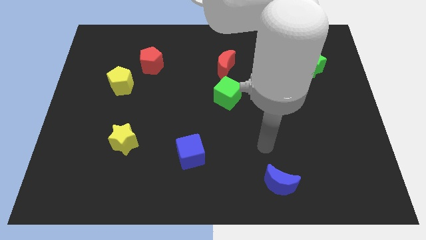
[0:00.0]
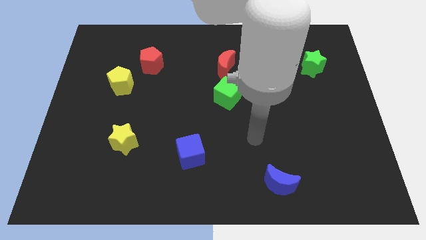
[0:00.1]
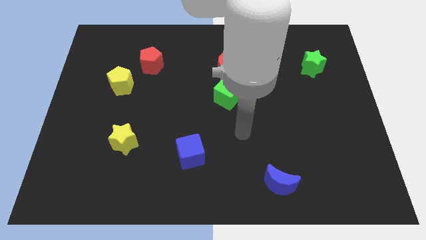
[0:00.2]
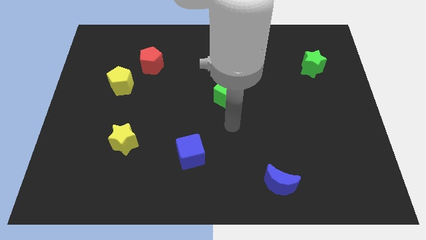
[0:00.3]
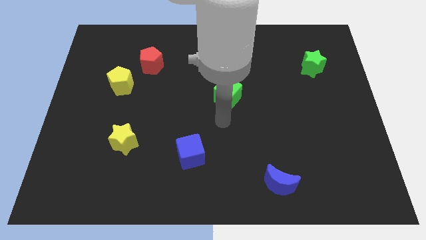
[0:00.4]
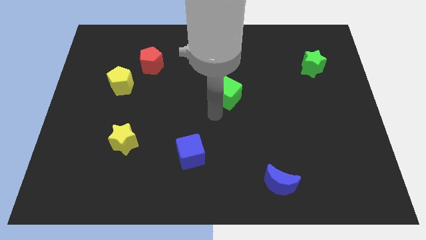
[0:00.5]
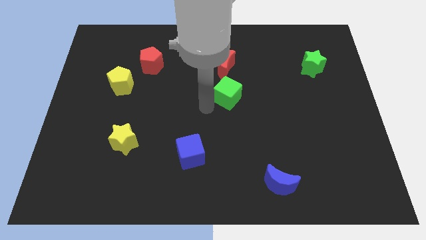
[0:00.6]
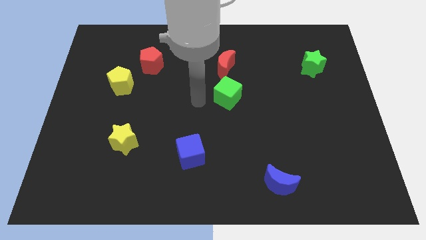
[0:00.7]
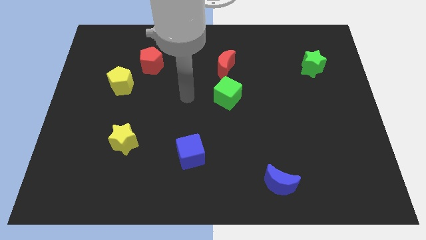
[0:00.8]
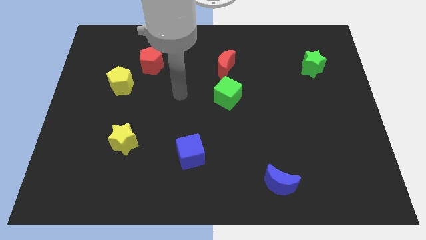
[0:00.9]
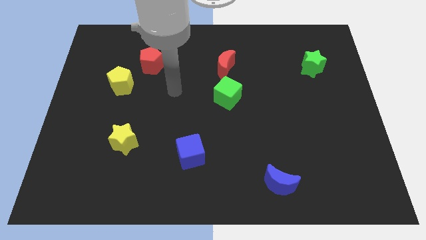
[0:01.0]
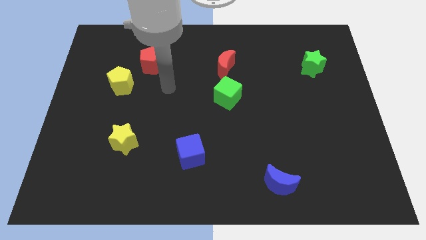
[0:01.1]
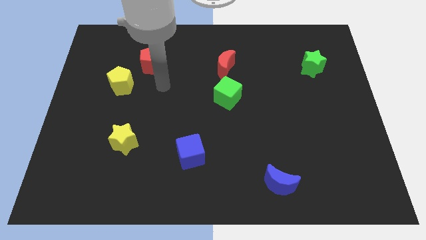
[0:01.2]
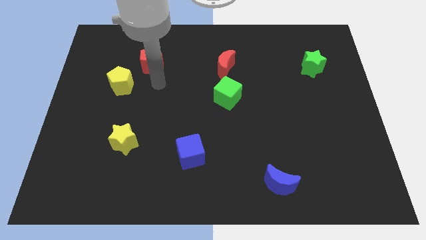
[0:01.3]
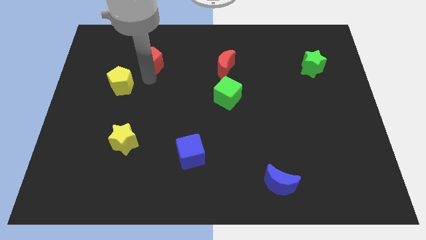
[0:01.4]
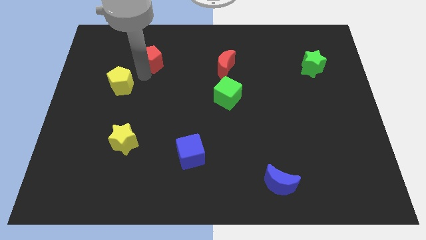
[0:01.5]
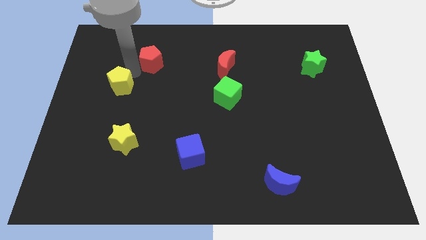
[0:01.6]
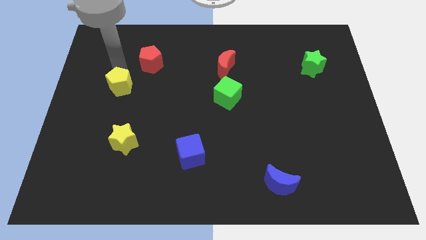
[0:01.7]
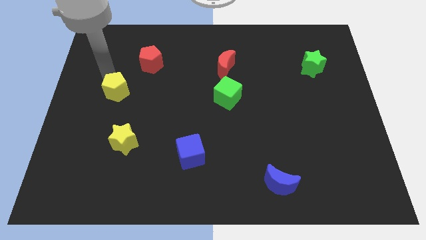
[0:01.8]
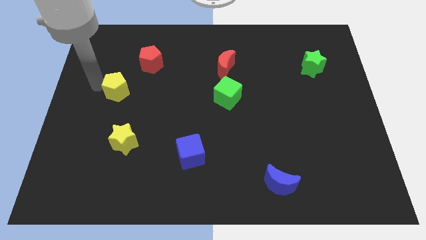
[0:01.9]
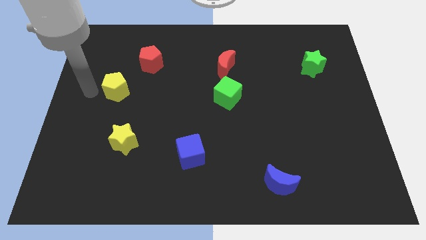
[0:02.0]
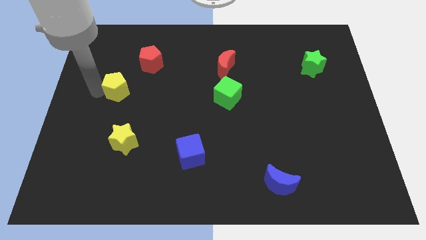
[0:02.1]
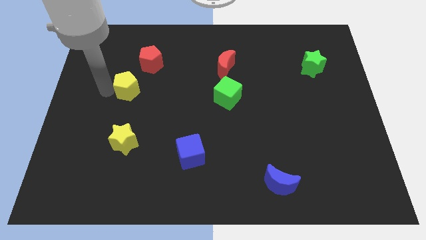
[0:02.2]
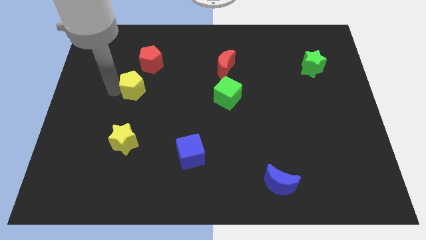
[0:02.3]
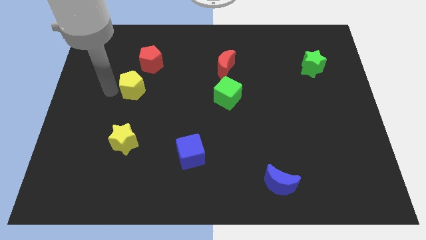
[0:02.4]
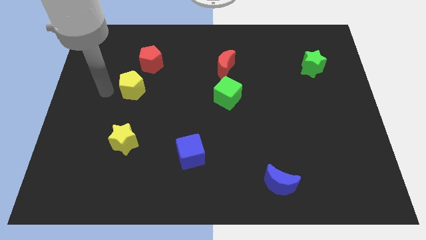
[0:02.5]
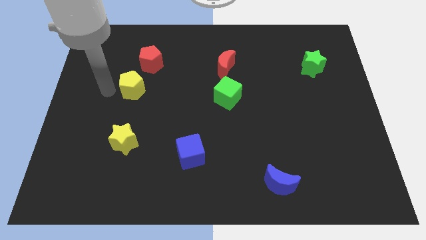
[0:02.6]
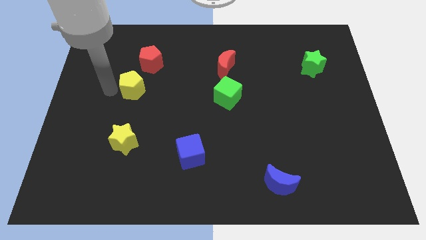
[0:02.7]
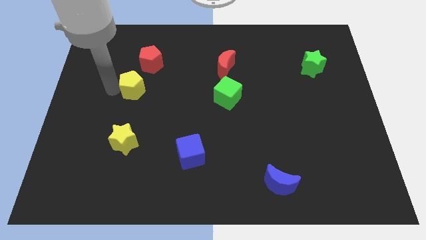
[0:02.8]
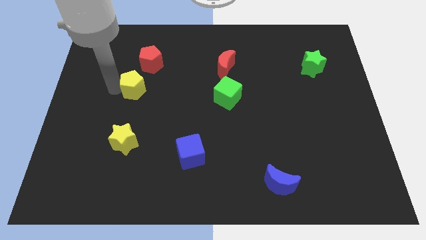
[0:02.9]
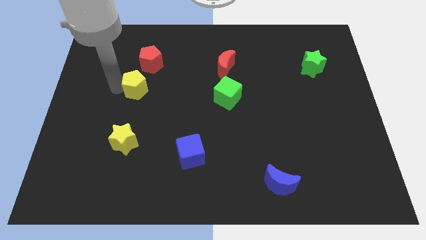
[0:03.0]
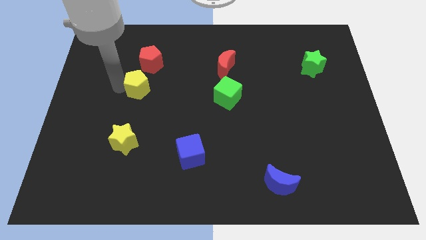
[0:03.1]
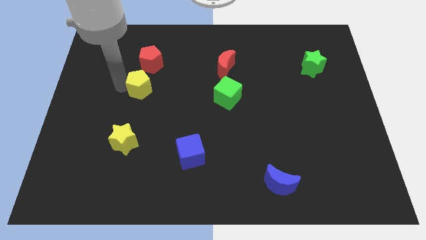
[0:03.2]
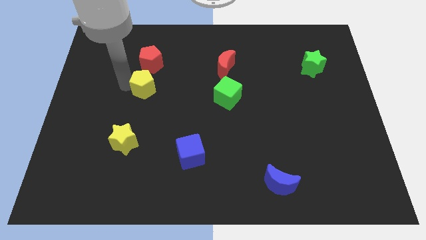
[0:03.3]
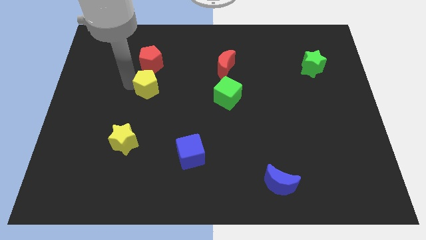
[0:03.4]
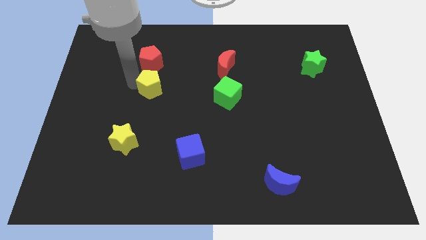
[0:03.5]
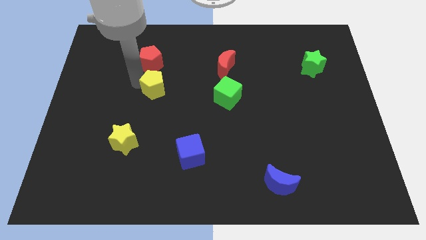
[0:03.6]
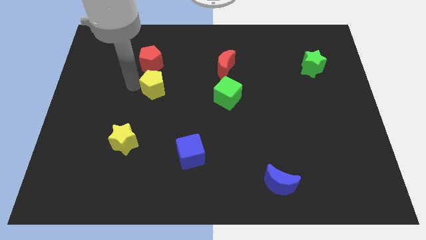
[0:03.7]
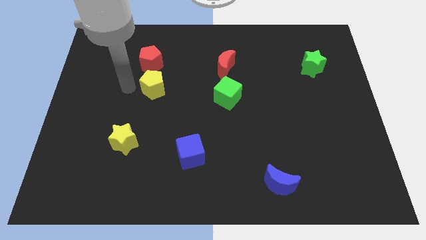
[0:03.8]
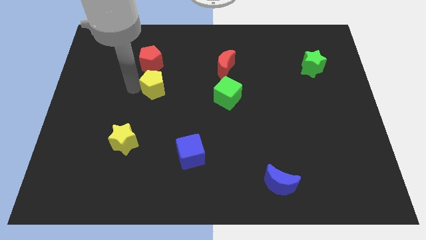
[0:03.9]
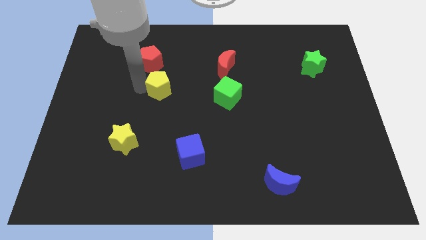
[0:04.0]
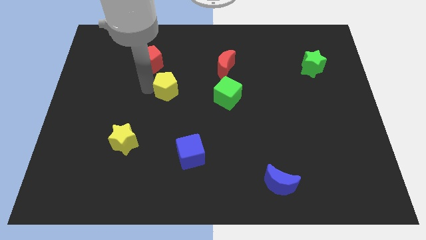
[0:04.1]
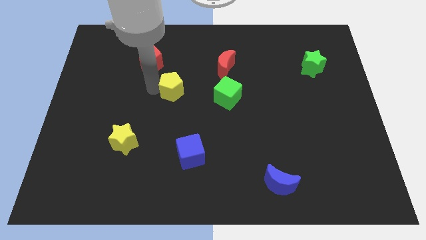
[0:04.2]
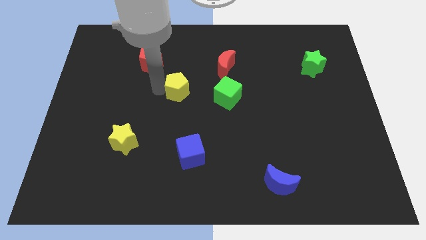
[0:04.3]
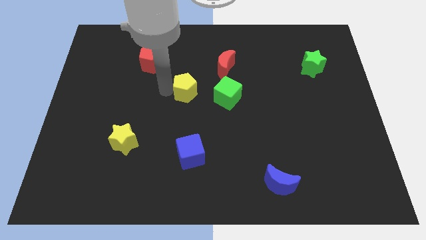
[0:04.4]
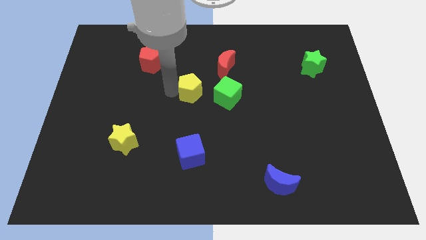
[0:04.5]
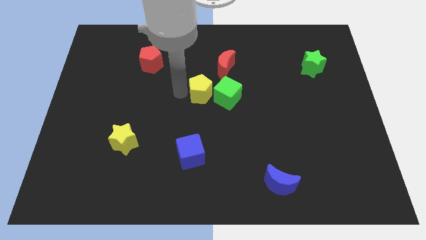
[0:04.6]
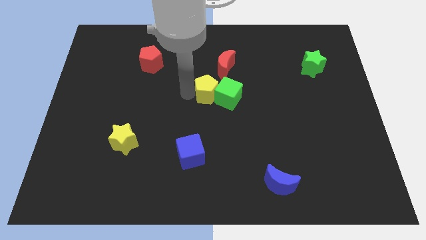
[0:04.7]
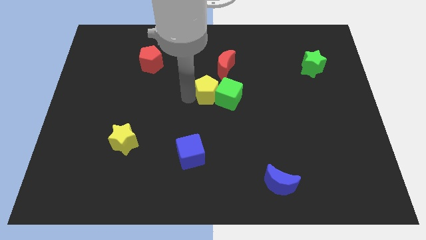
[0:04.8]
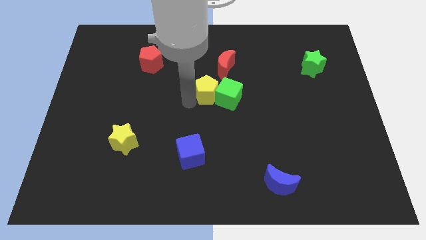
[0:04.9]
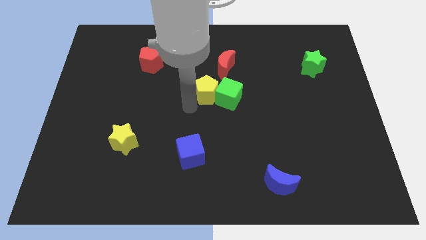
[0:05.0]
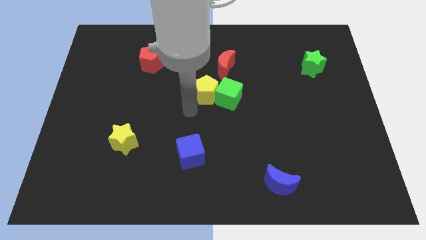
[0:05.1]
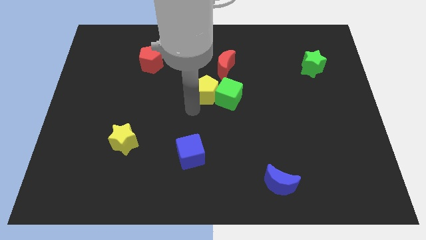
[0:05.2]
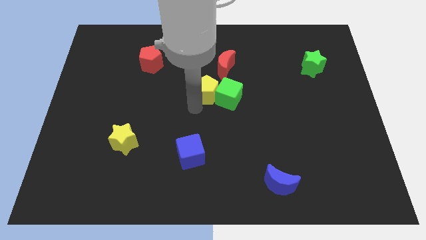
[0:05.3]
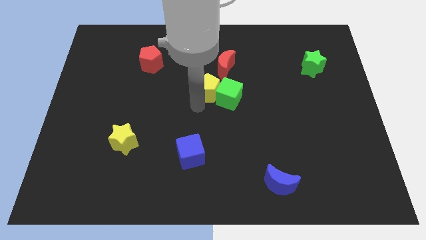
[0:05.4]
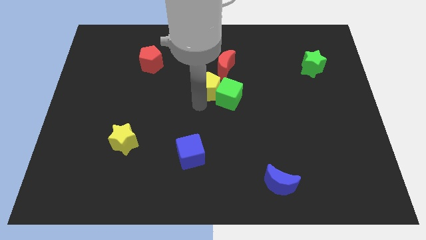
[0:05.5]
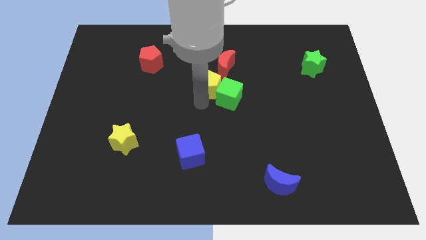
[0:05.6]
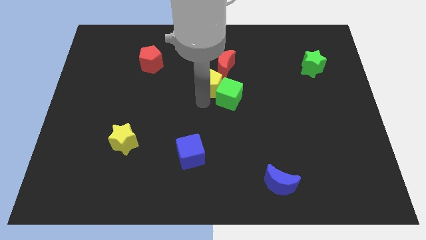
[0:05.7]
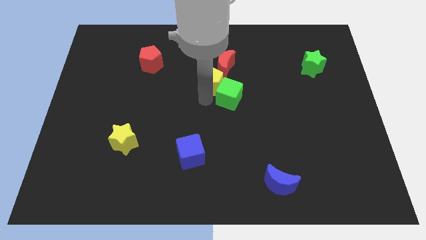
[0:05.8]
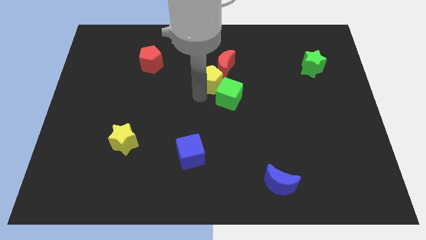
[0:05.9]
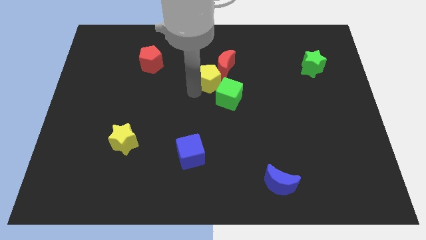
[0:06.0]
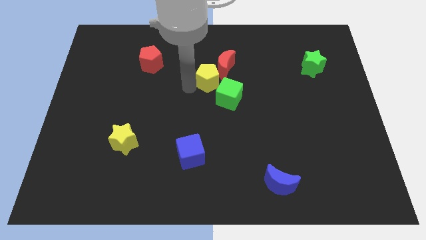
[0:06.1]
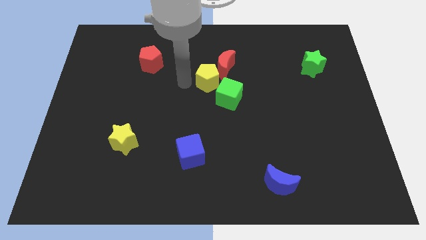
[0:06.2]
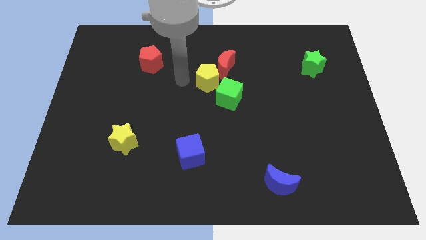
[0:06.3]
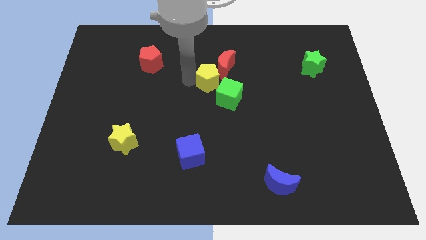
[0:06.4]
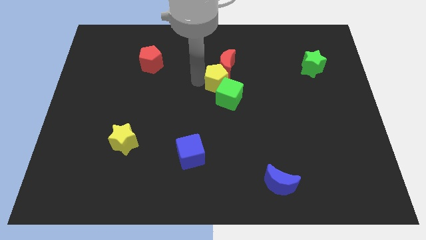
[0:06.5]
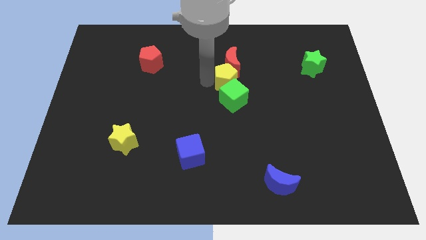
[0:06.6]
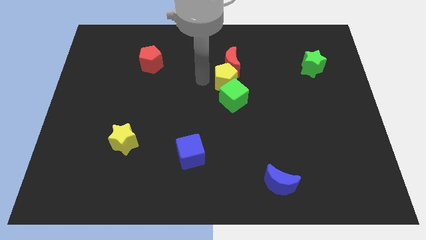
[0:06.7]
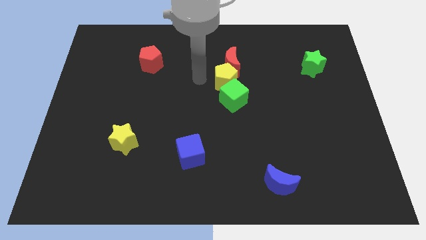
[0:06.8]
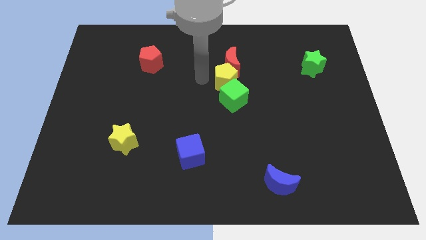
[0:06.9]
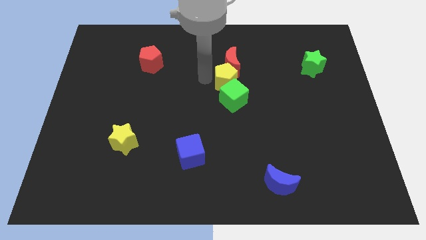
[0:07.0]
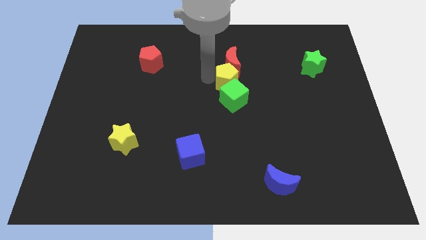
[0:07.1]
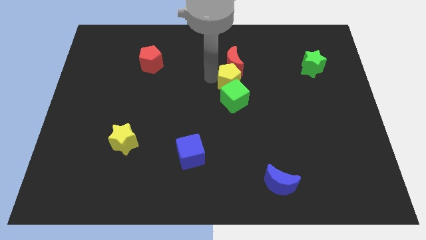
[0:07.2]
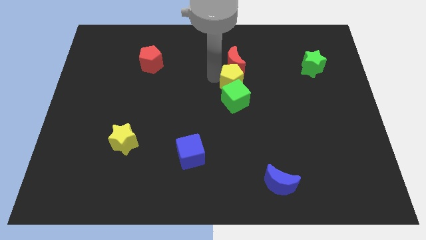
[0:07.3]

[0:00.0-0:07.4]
move the yellow pentagon diagonally up and to the right of the green cube
